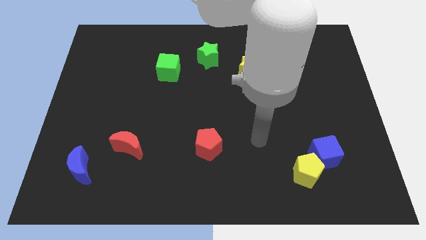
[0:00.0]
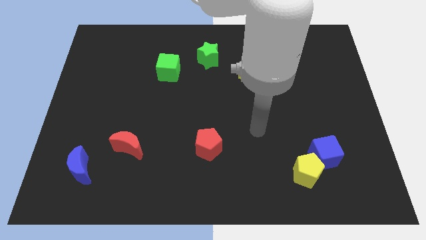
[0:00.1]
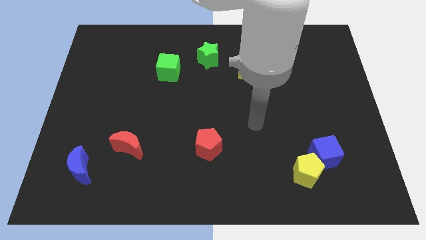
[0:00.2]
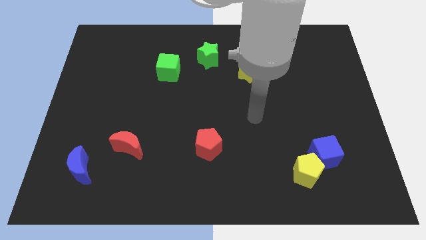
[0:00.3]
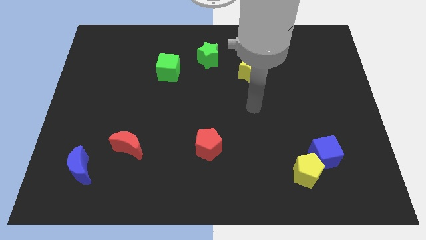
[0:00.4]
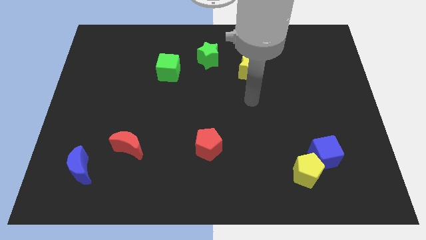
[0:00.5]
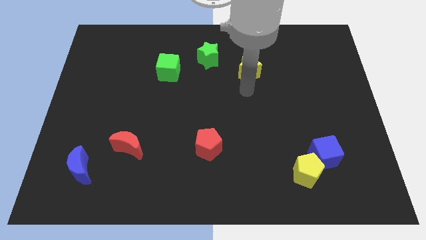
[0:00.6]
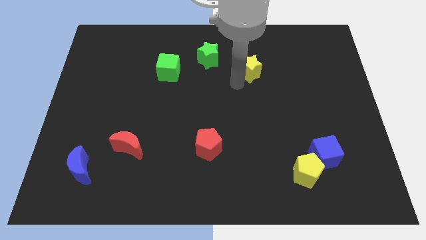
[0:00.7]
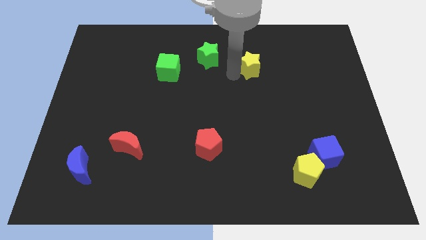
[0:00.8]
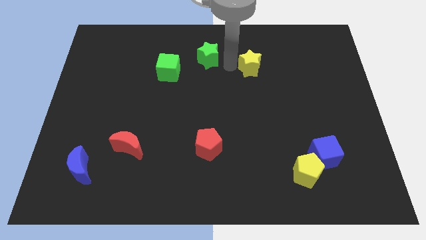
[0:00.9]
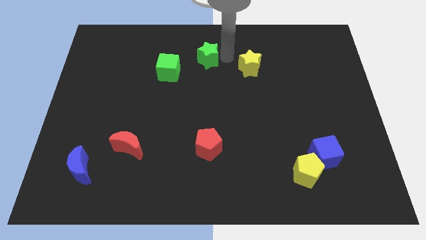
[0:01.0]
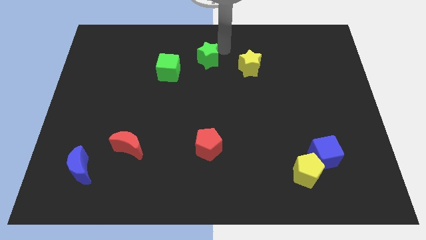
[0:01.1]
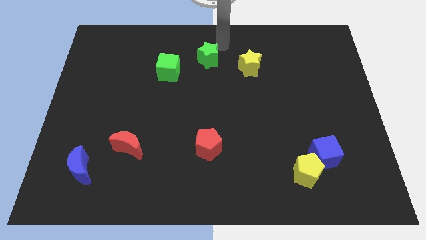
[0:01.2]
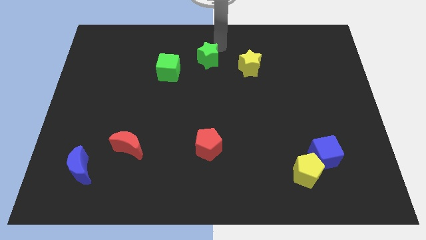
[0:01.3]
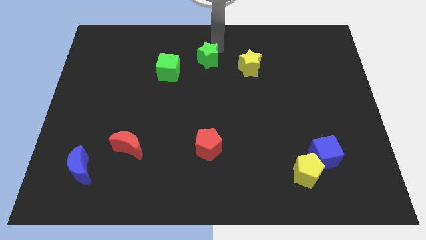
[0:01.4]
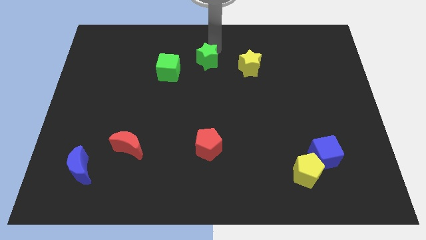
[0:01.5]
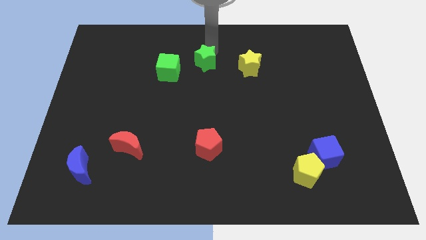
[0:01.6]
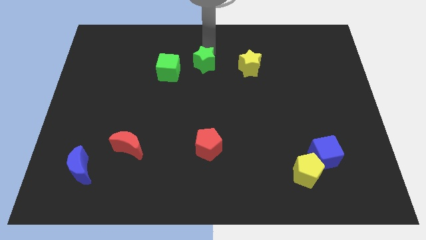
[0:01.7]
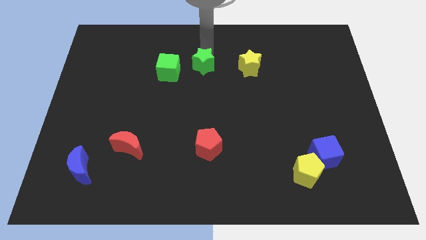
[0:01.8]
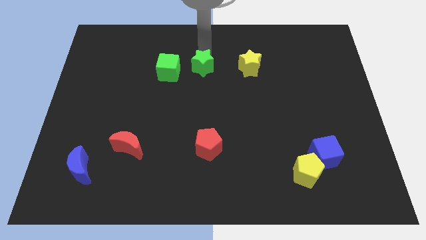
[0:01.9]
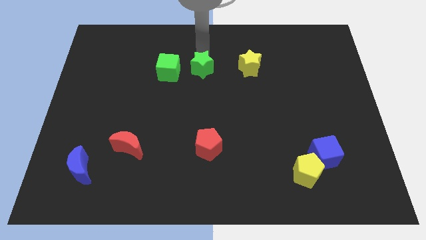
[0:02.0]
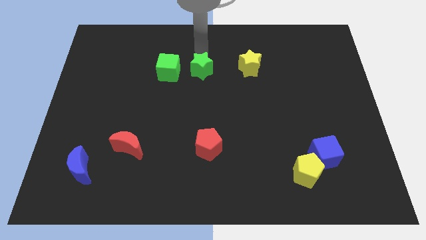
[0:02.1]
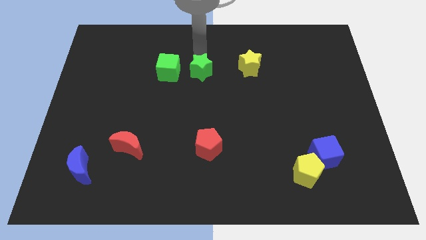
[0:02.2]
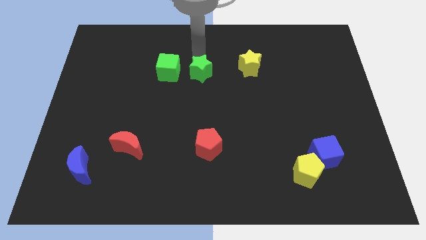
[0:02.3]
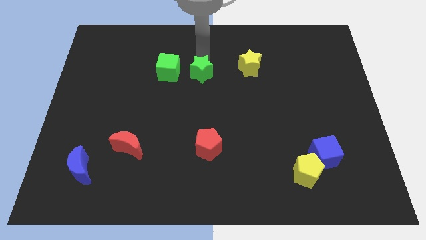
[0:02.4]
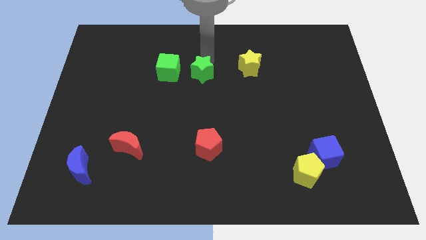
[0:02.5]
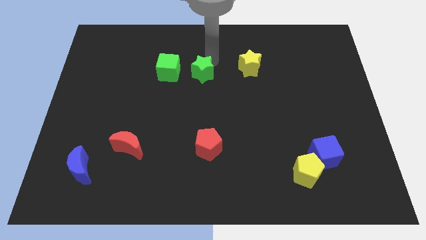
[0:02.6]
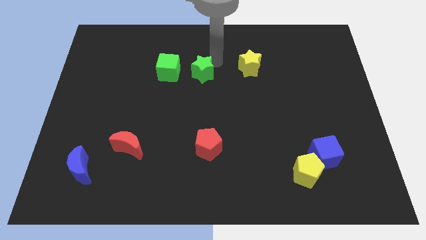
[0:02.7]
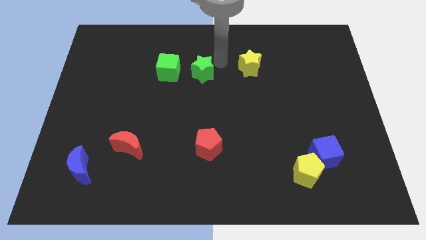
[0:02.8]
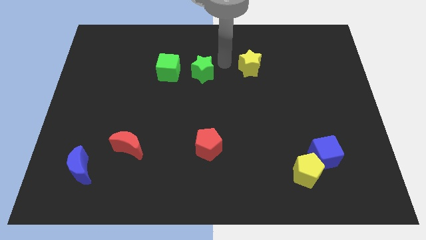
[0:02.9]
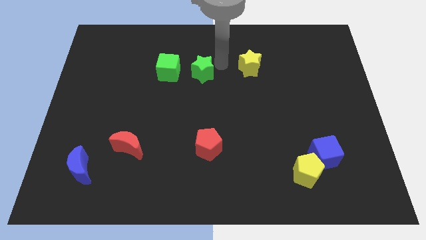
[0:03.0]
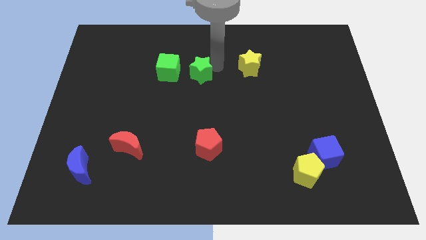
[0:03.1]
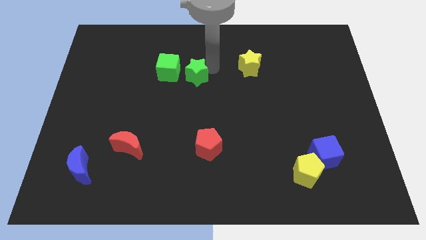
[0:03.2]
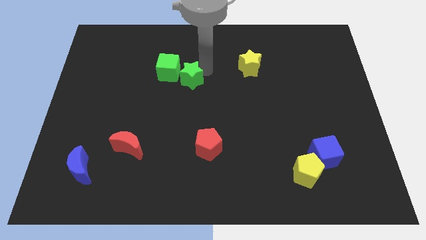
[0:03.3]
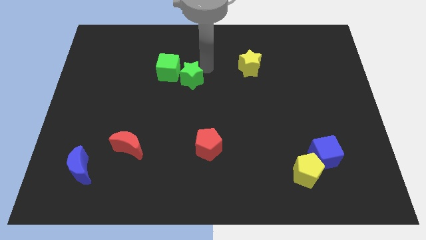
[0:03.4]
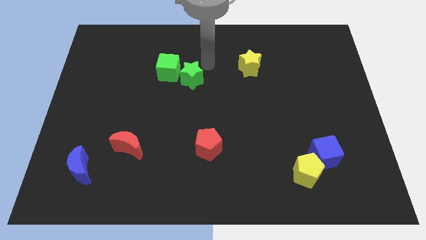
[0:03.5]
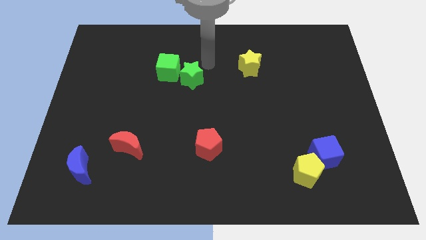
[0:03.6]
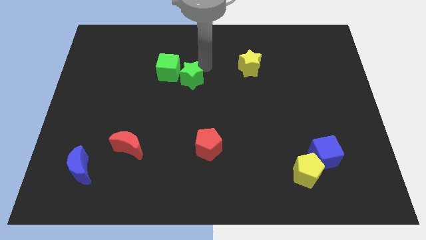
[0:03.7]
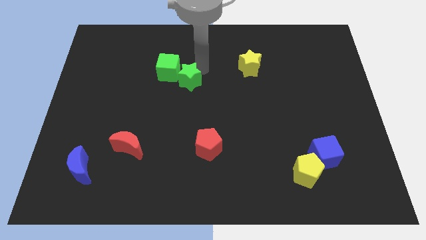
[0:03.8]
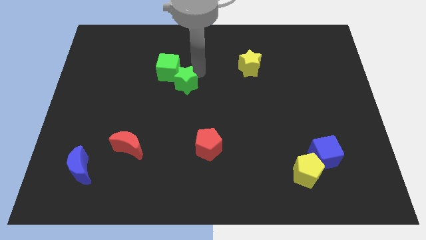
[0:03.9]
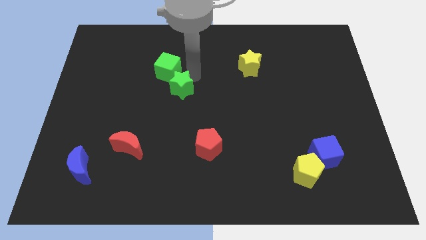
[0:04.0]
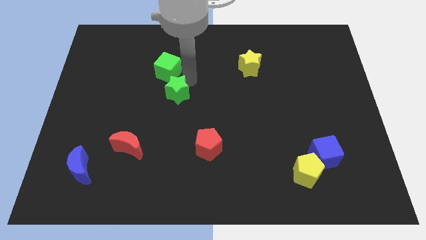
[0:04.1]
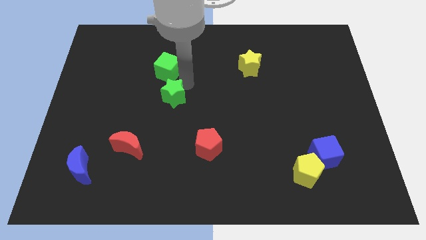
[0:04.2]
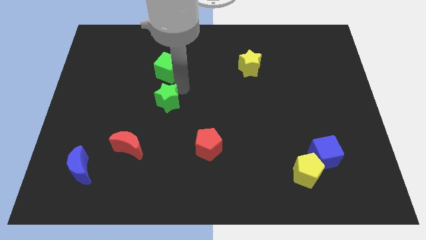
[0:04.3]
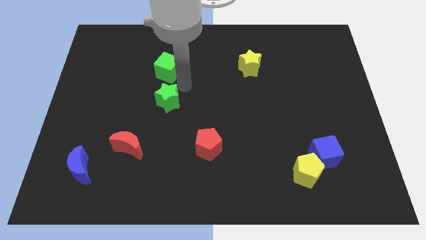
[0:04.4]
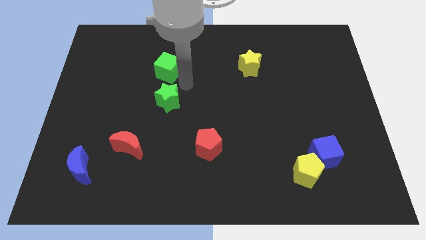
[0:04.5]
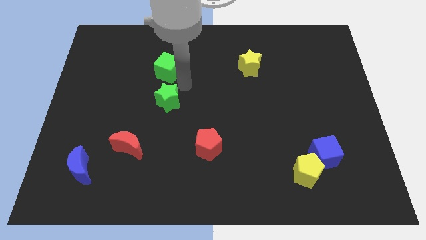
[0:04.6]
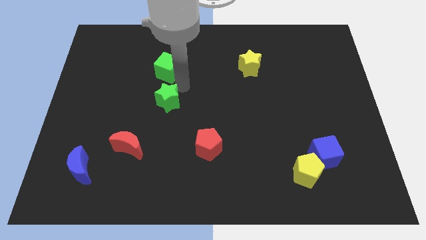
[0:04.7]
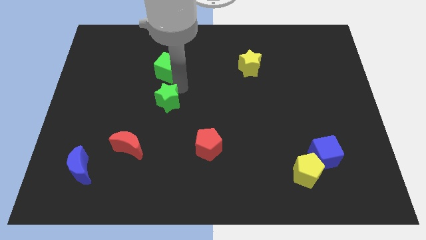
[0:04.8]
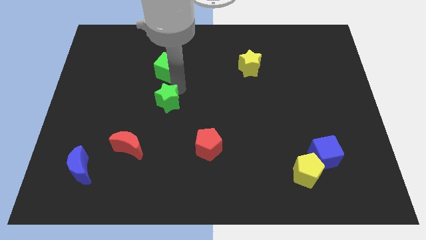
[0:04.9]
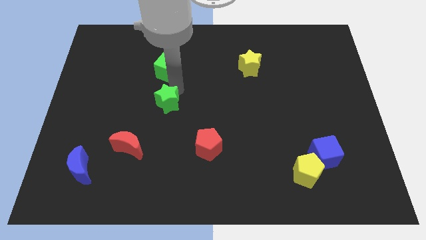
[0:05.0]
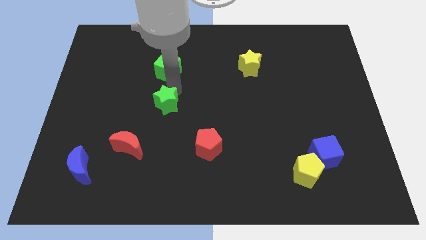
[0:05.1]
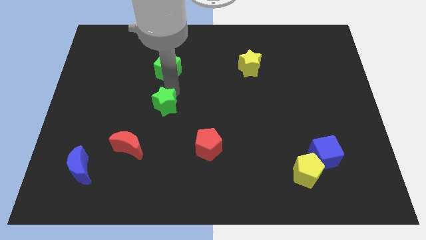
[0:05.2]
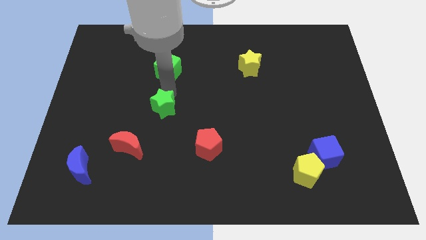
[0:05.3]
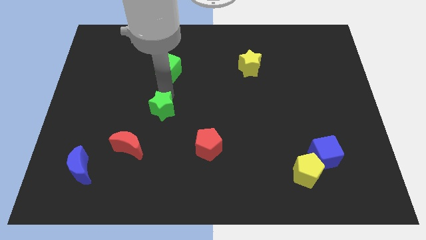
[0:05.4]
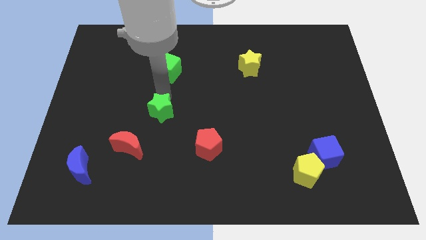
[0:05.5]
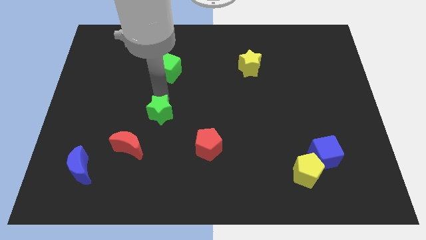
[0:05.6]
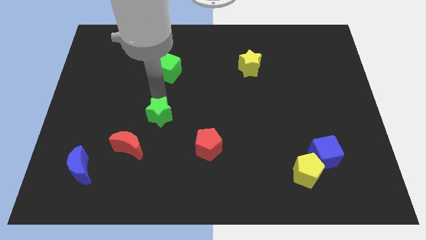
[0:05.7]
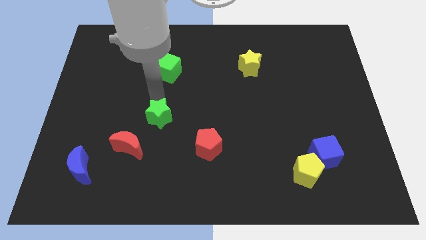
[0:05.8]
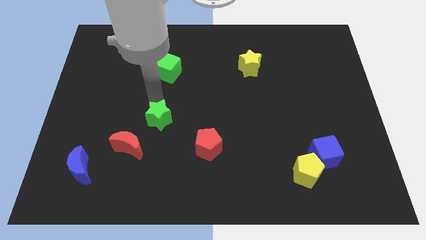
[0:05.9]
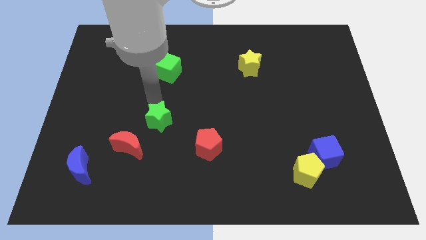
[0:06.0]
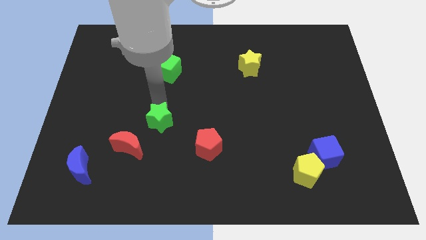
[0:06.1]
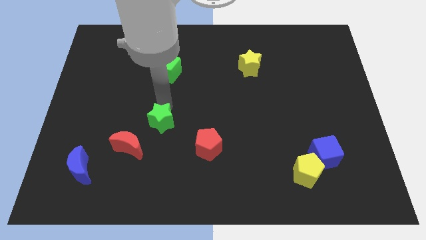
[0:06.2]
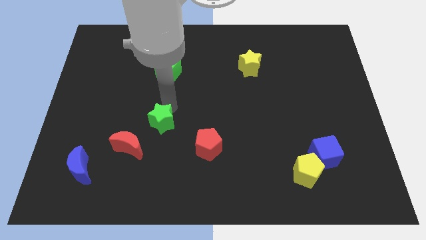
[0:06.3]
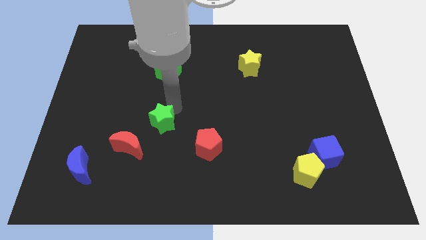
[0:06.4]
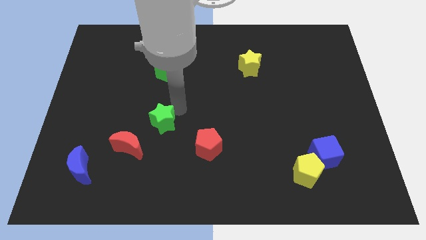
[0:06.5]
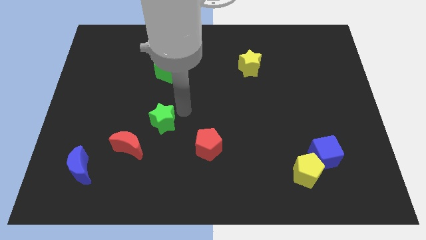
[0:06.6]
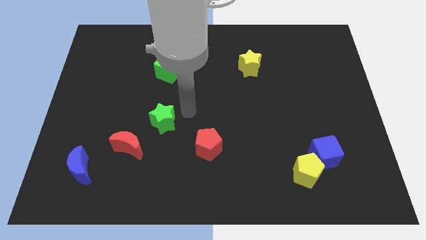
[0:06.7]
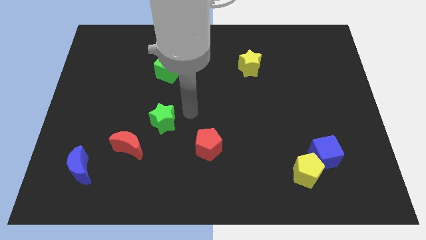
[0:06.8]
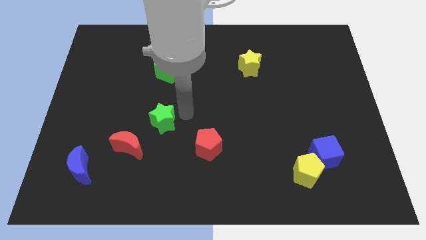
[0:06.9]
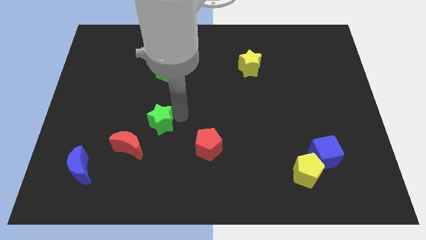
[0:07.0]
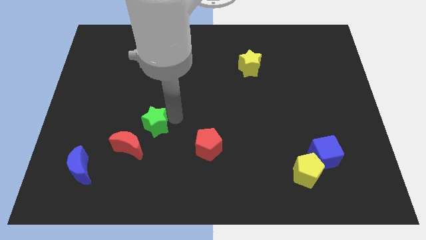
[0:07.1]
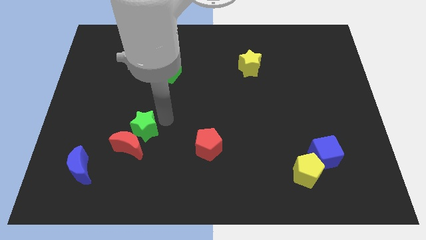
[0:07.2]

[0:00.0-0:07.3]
move the green star towards the red moon
